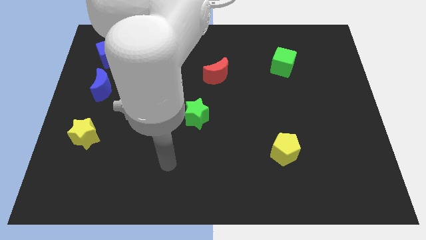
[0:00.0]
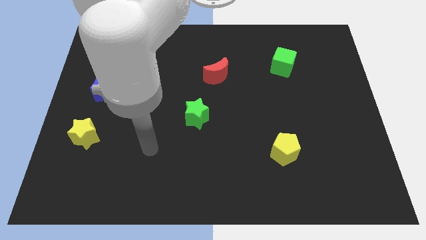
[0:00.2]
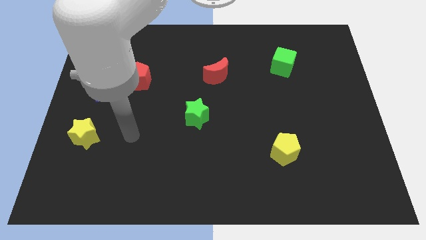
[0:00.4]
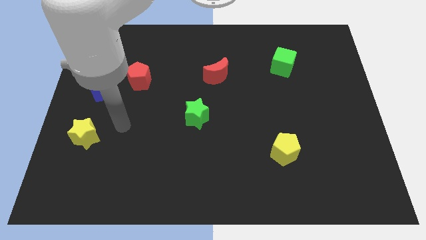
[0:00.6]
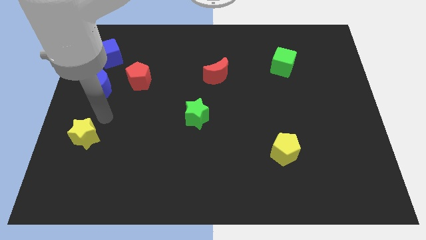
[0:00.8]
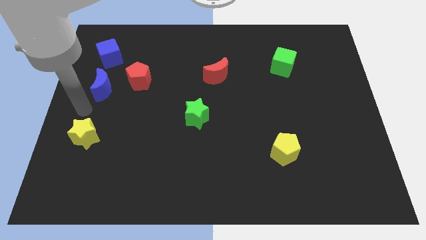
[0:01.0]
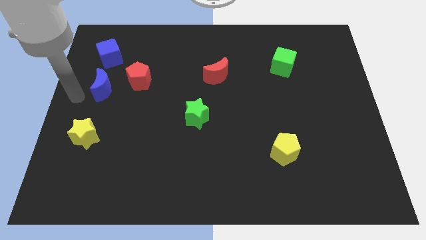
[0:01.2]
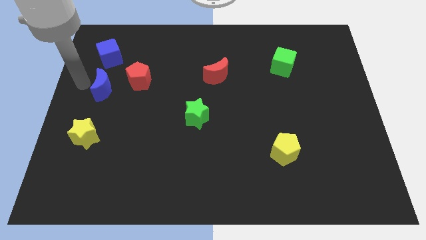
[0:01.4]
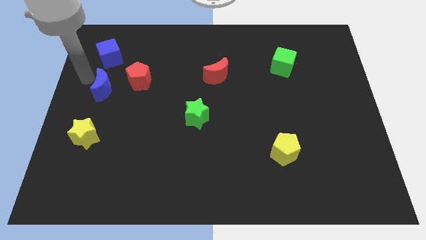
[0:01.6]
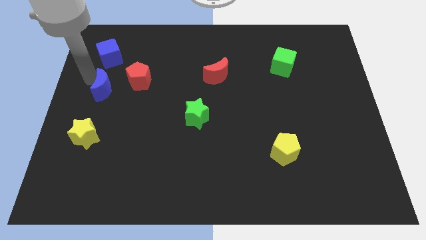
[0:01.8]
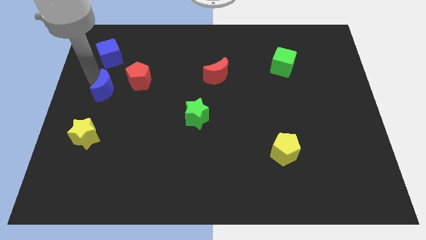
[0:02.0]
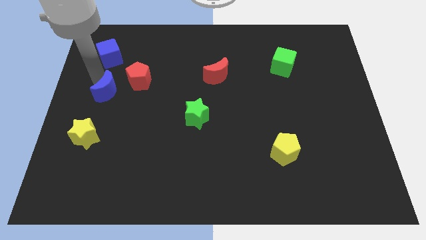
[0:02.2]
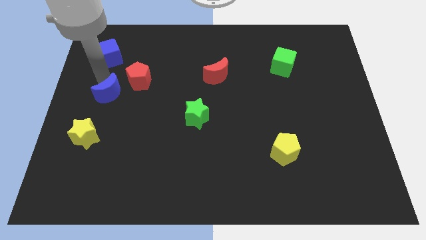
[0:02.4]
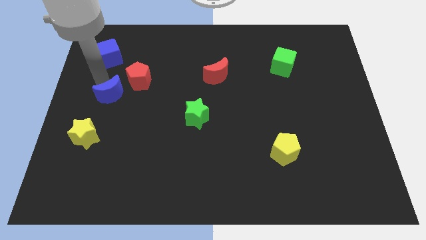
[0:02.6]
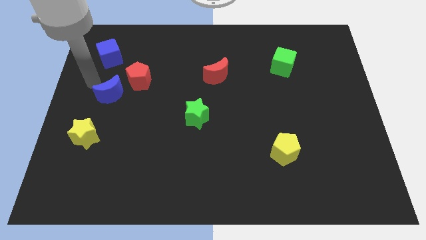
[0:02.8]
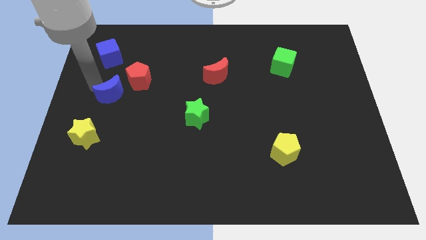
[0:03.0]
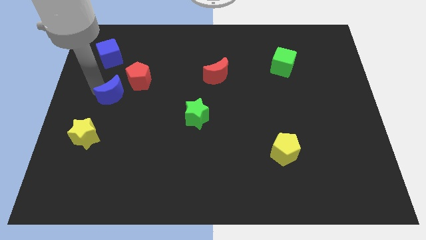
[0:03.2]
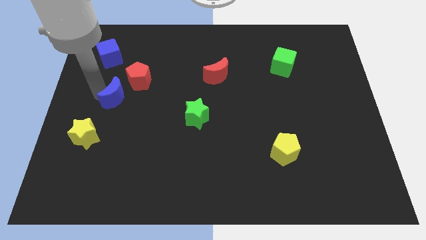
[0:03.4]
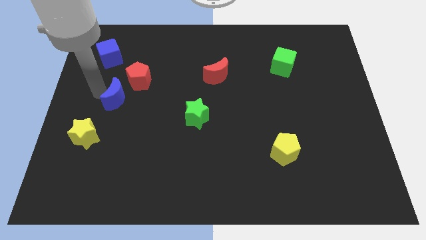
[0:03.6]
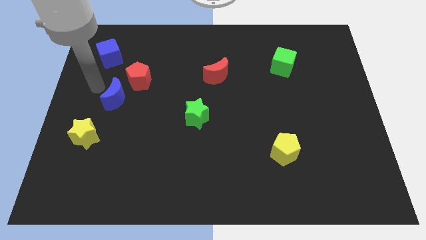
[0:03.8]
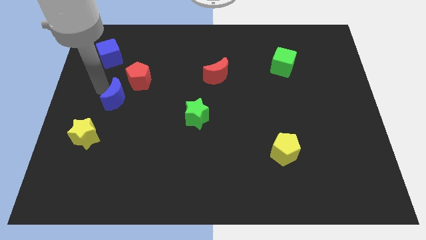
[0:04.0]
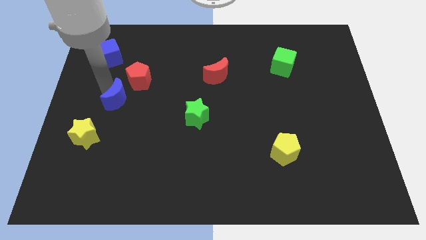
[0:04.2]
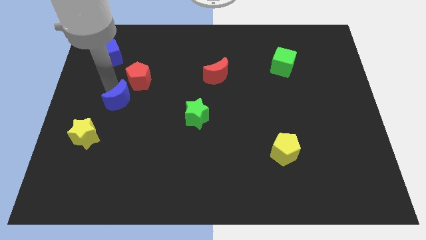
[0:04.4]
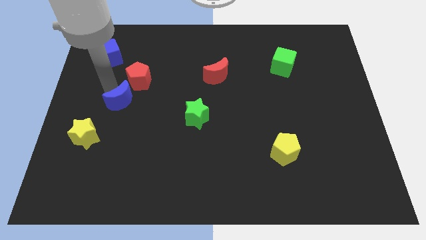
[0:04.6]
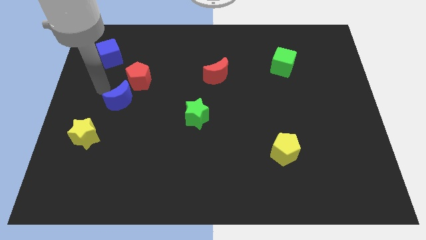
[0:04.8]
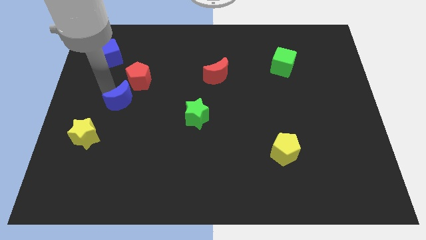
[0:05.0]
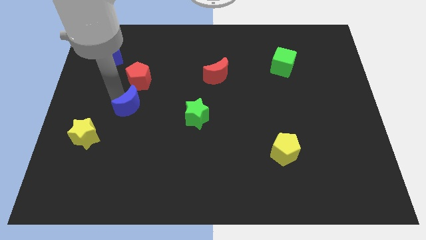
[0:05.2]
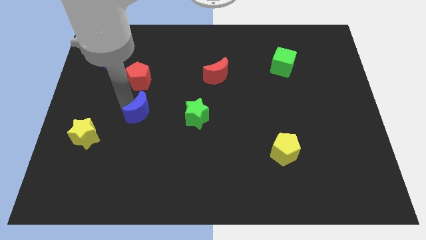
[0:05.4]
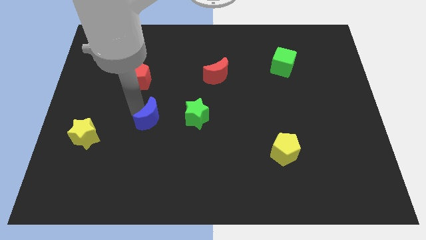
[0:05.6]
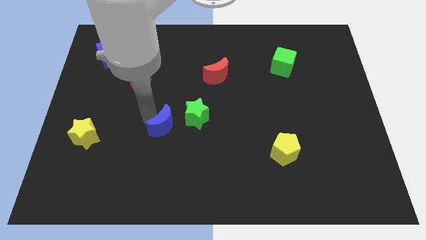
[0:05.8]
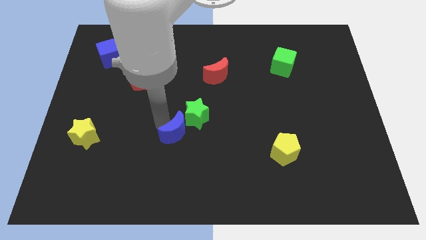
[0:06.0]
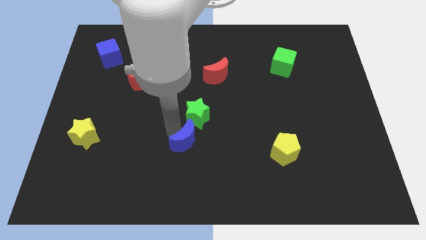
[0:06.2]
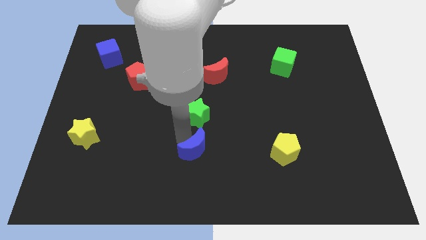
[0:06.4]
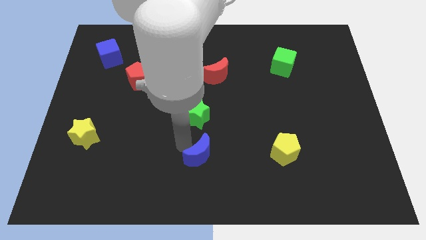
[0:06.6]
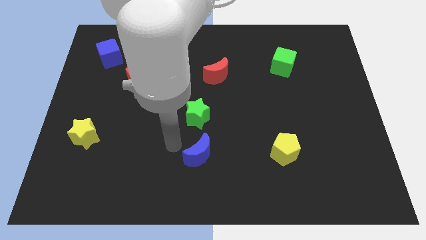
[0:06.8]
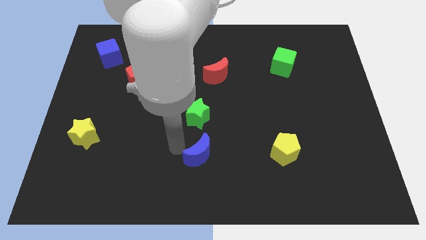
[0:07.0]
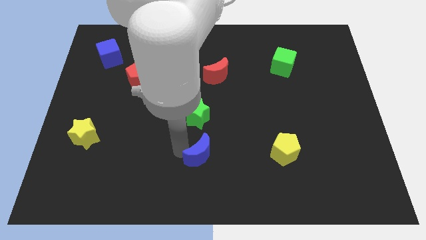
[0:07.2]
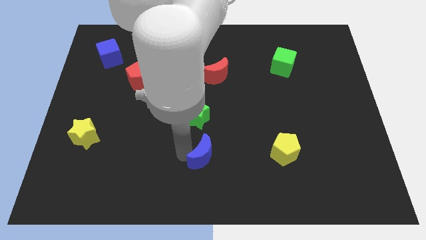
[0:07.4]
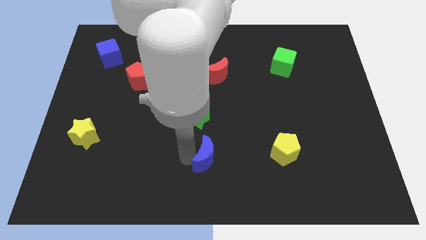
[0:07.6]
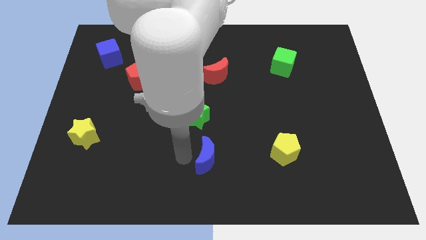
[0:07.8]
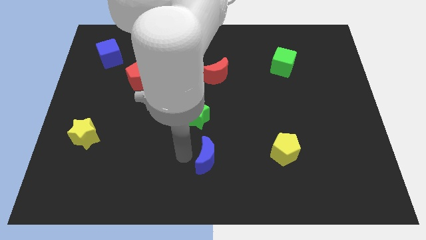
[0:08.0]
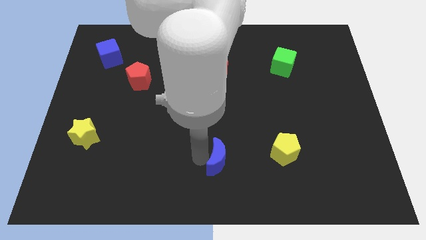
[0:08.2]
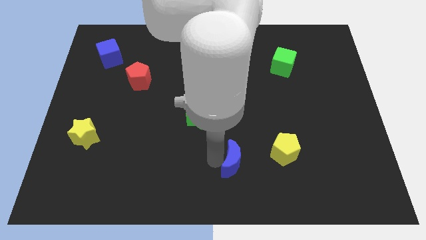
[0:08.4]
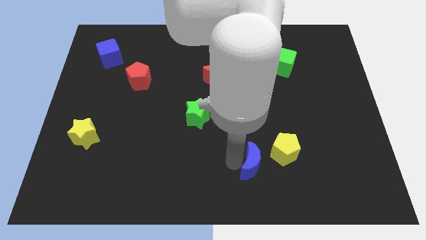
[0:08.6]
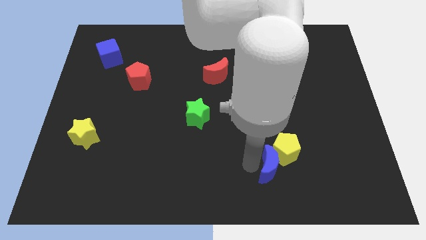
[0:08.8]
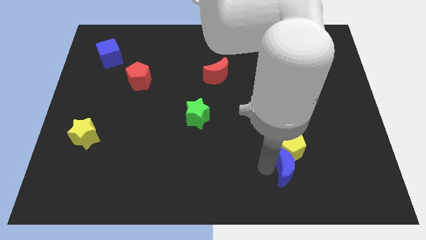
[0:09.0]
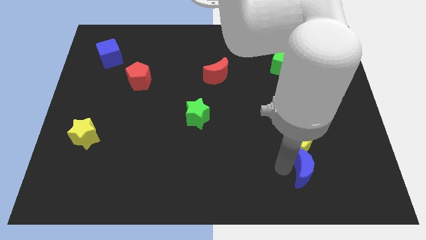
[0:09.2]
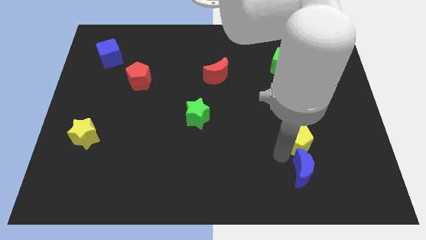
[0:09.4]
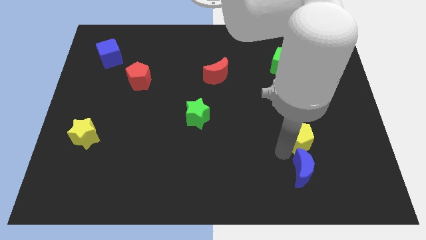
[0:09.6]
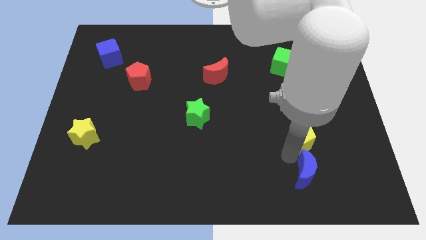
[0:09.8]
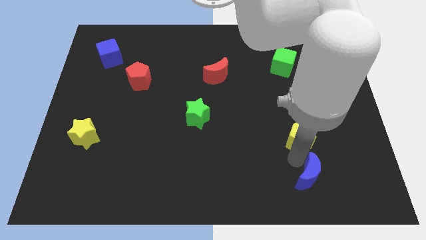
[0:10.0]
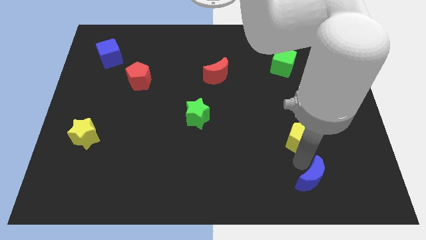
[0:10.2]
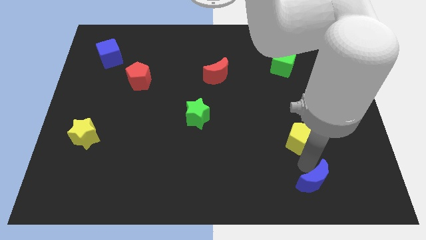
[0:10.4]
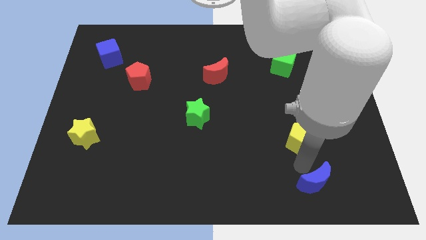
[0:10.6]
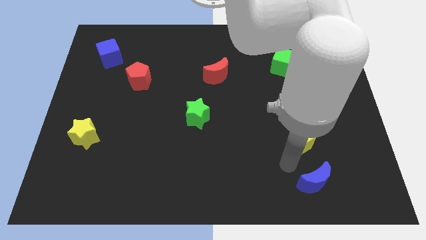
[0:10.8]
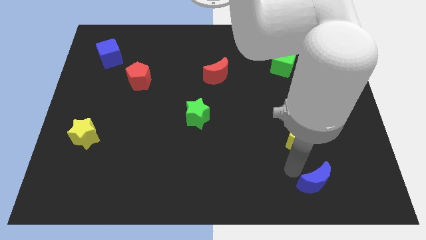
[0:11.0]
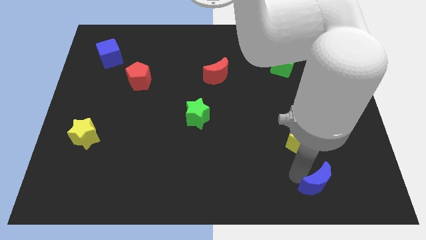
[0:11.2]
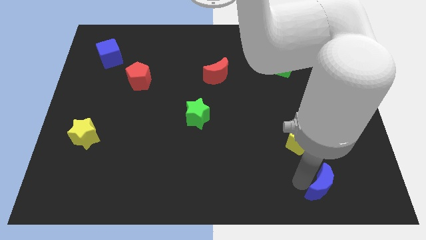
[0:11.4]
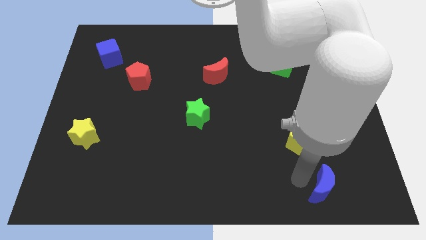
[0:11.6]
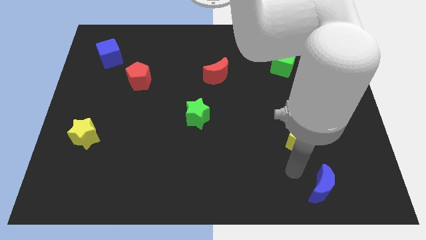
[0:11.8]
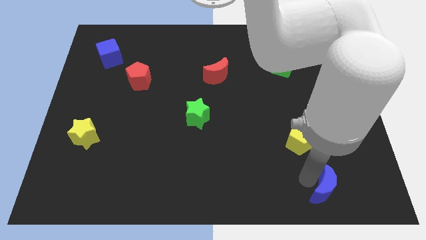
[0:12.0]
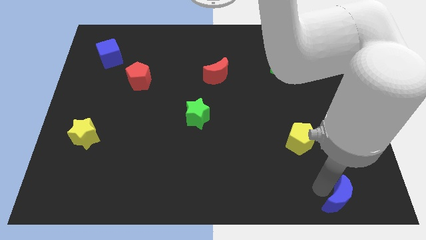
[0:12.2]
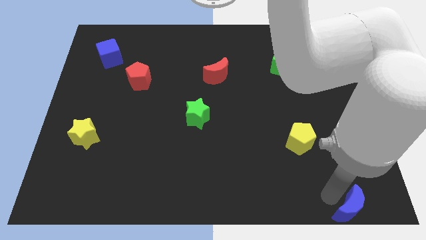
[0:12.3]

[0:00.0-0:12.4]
move the blue moon to the bottom right
